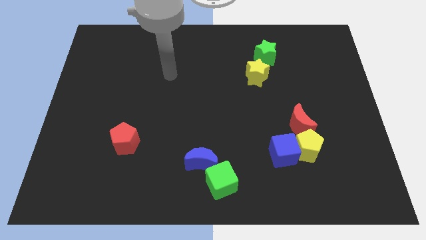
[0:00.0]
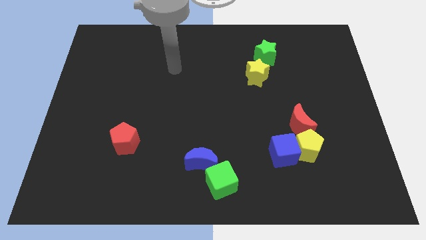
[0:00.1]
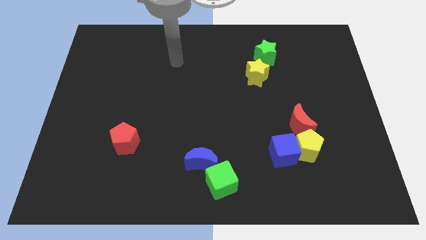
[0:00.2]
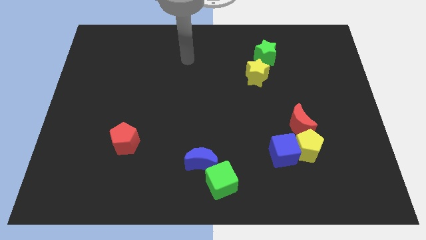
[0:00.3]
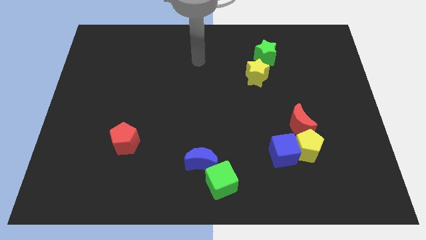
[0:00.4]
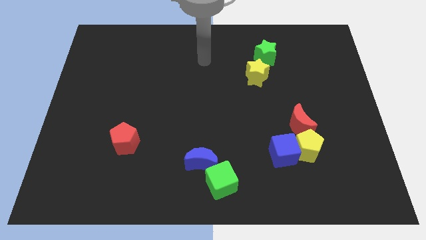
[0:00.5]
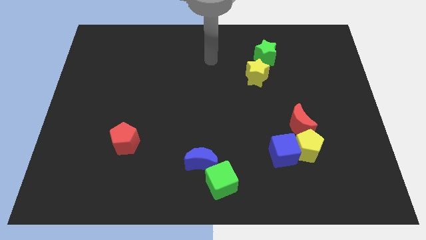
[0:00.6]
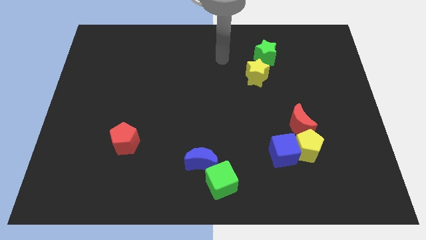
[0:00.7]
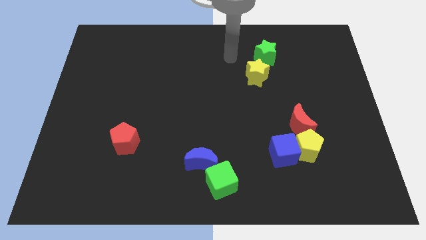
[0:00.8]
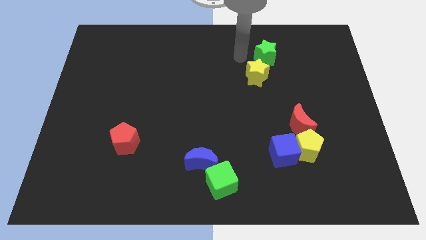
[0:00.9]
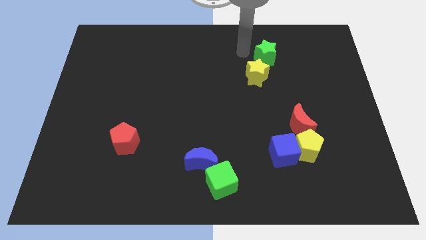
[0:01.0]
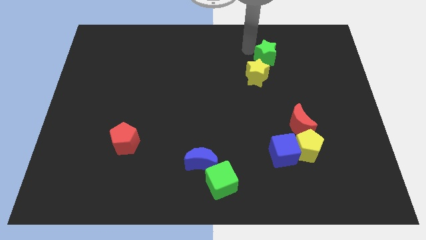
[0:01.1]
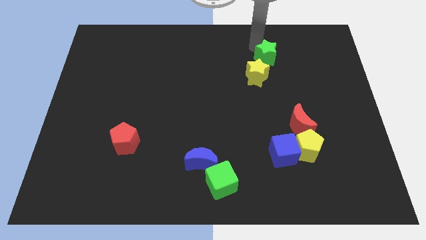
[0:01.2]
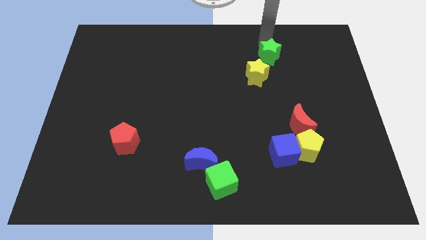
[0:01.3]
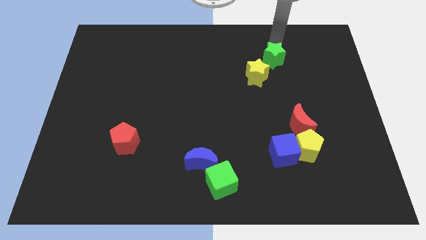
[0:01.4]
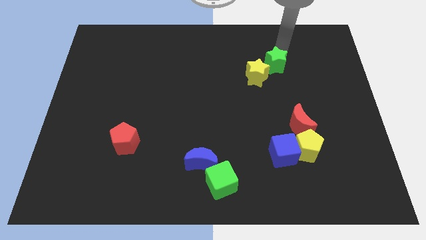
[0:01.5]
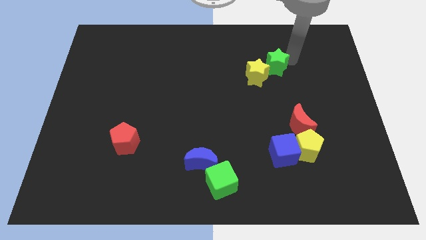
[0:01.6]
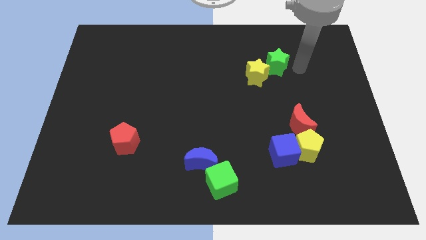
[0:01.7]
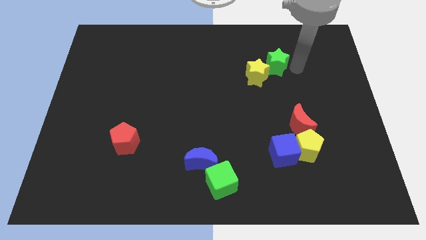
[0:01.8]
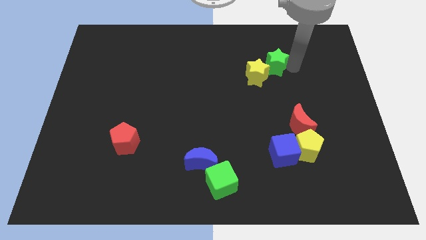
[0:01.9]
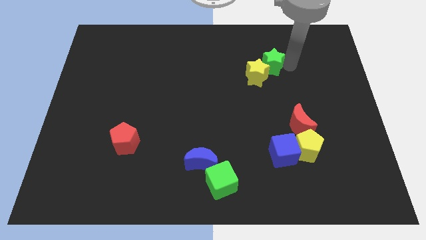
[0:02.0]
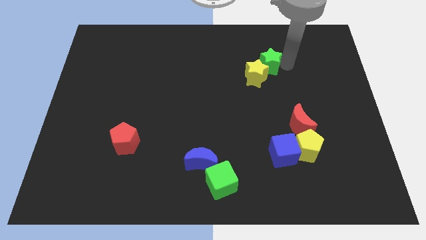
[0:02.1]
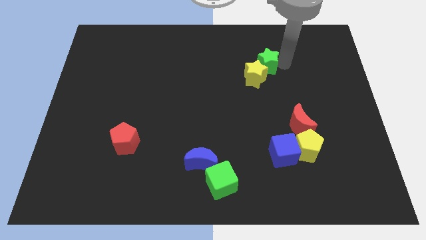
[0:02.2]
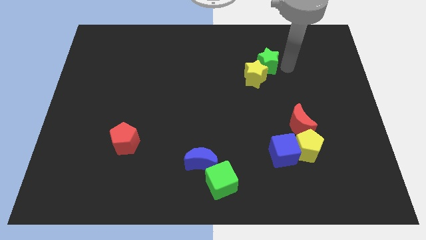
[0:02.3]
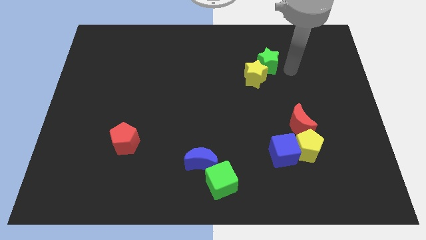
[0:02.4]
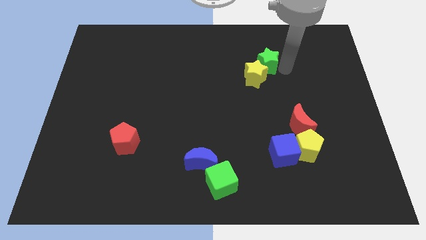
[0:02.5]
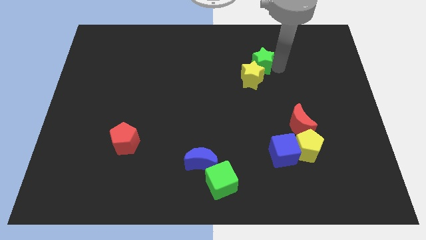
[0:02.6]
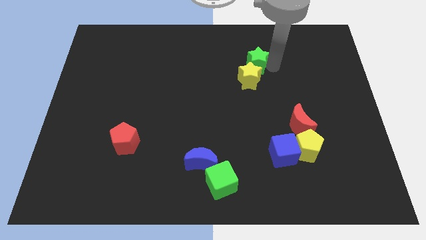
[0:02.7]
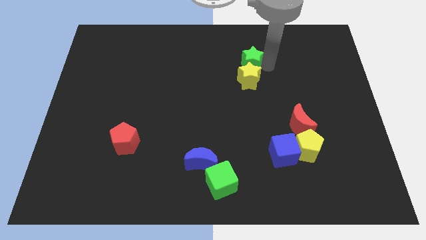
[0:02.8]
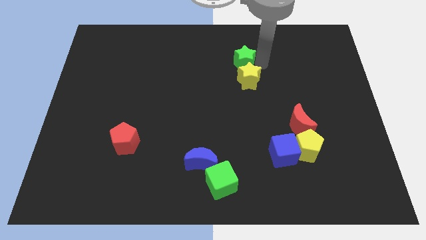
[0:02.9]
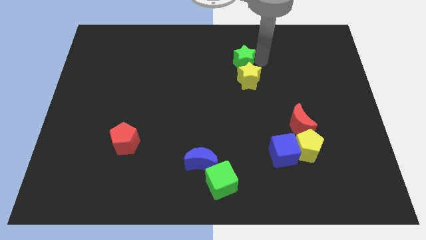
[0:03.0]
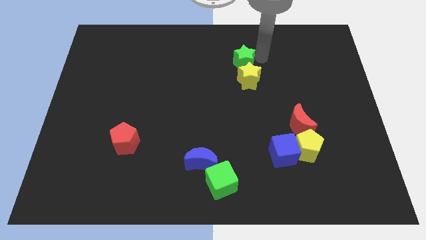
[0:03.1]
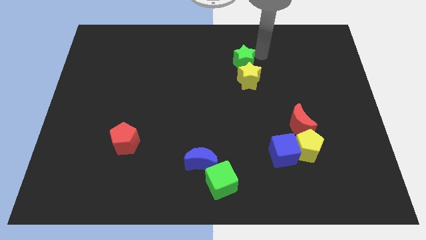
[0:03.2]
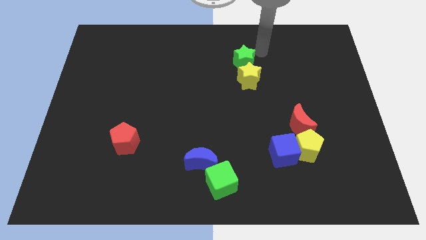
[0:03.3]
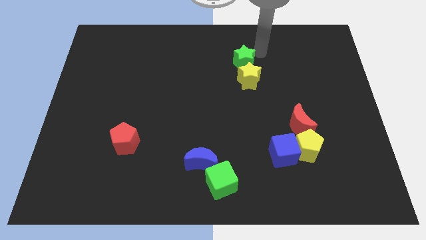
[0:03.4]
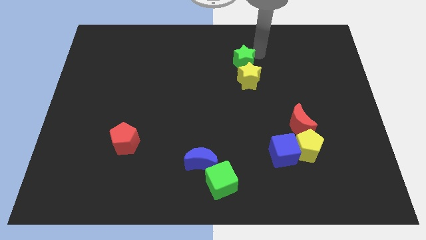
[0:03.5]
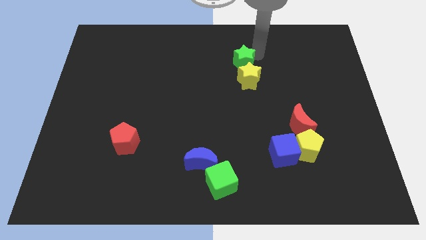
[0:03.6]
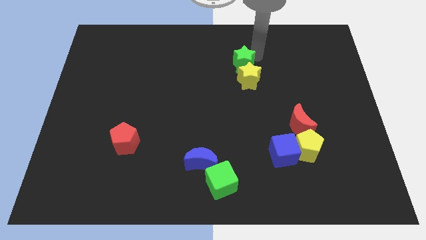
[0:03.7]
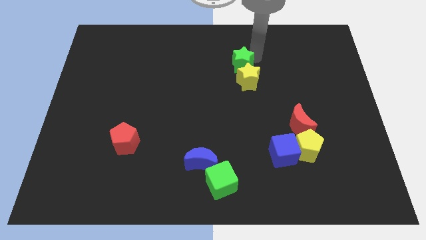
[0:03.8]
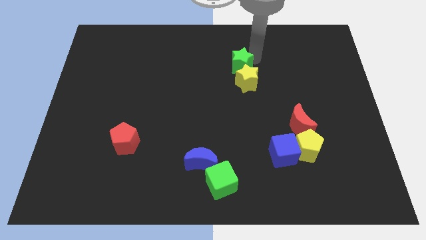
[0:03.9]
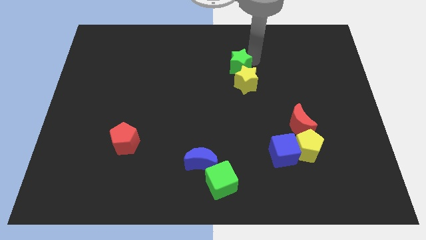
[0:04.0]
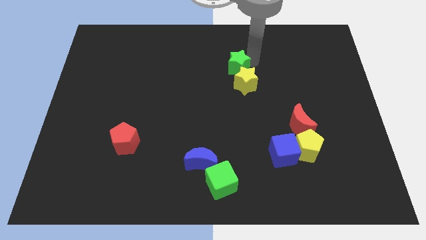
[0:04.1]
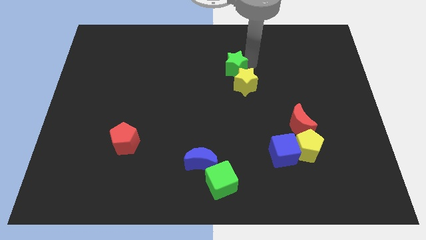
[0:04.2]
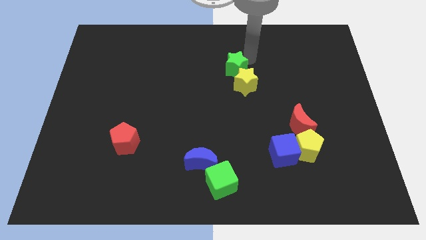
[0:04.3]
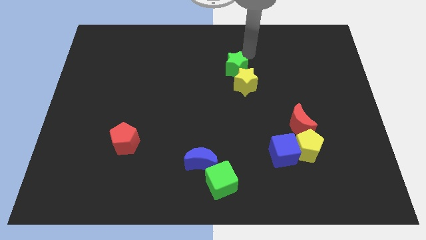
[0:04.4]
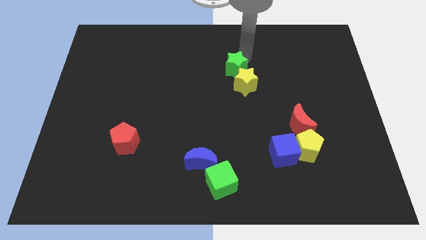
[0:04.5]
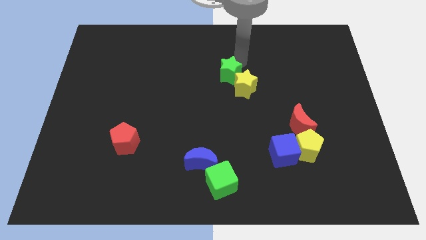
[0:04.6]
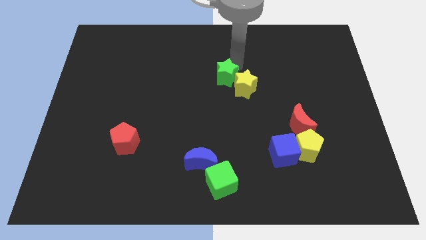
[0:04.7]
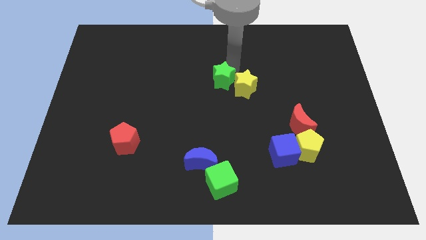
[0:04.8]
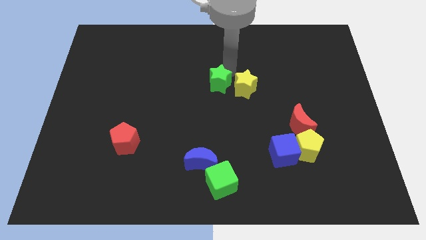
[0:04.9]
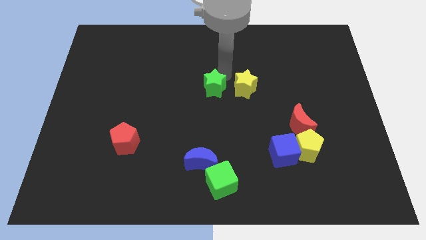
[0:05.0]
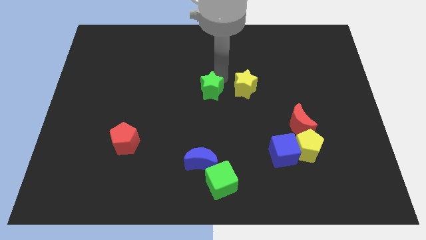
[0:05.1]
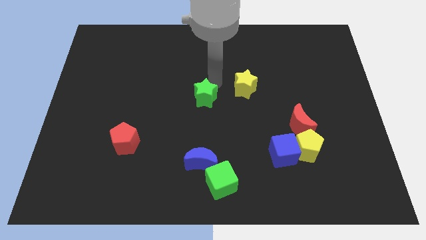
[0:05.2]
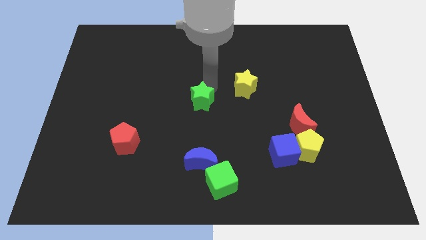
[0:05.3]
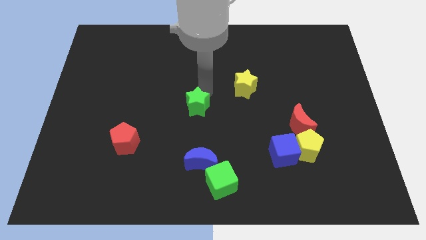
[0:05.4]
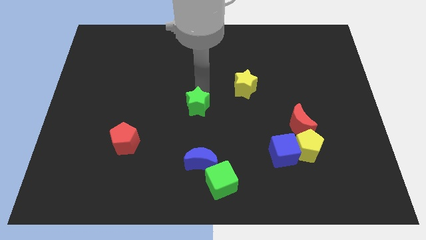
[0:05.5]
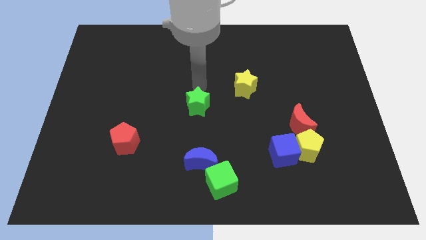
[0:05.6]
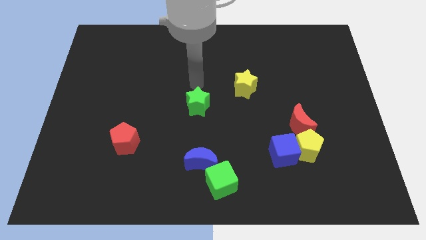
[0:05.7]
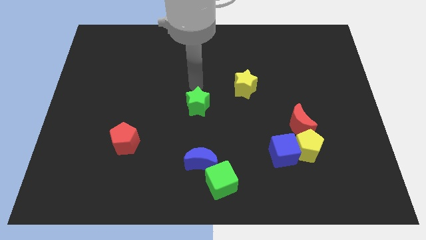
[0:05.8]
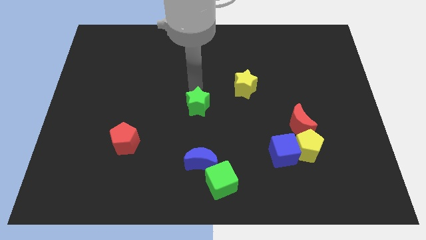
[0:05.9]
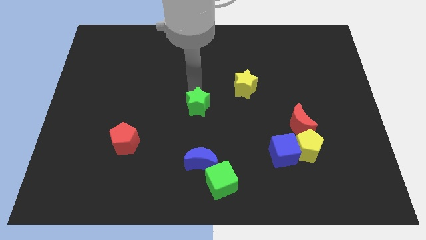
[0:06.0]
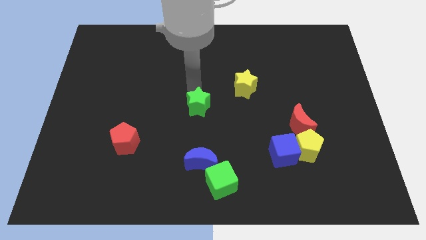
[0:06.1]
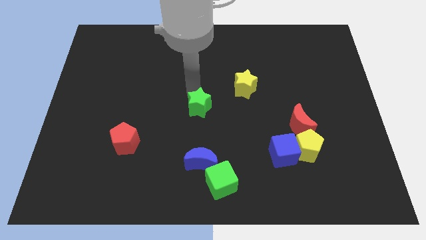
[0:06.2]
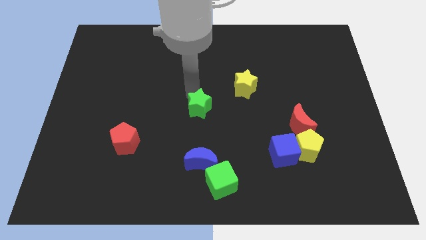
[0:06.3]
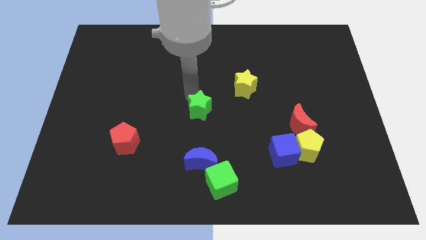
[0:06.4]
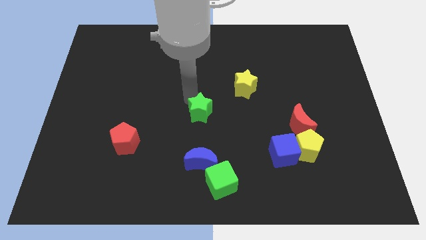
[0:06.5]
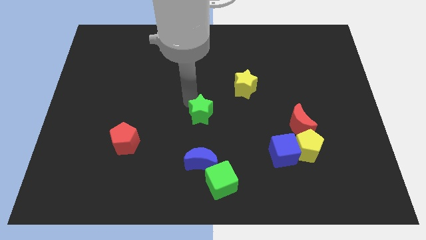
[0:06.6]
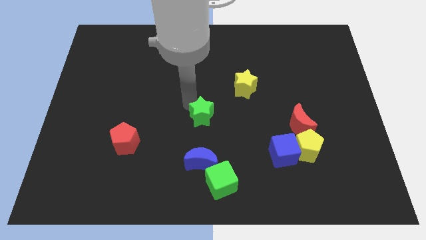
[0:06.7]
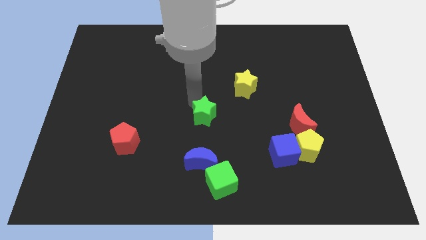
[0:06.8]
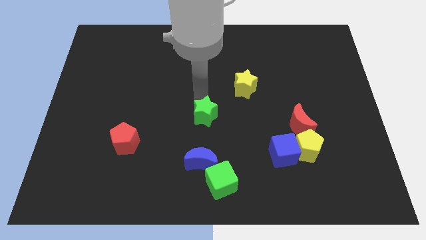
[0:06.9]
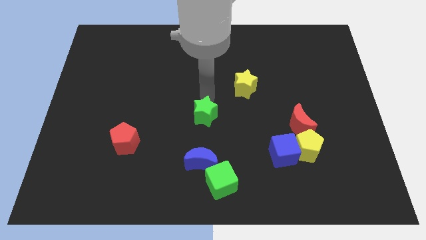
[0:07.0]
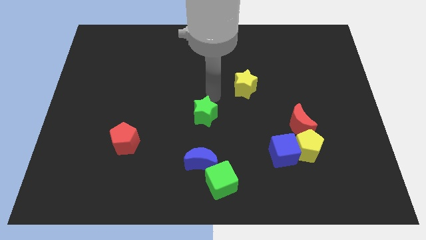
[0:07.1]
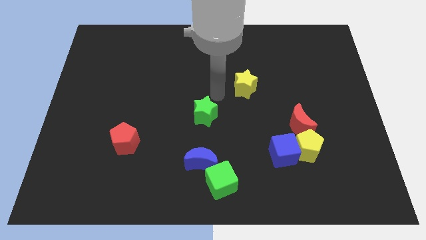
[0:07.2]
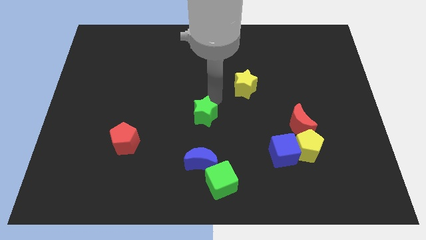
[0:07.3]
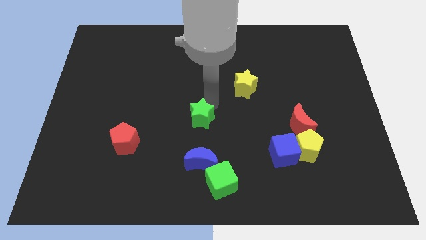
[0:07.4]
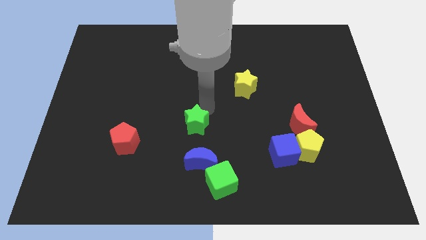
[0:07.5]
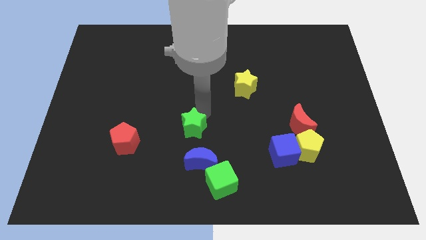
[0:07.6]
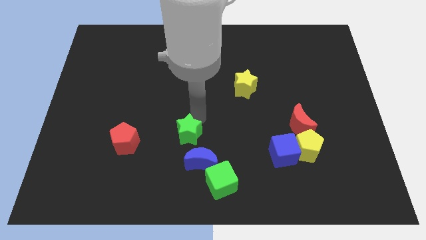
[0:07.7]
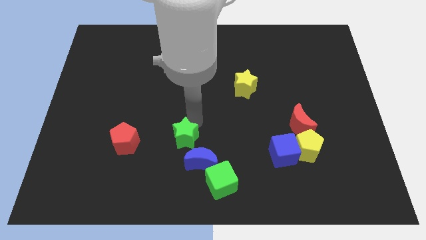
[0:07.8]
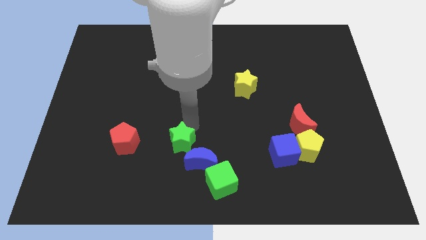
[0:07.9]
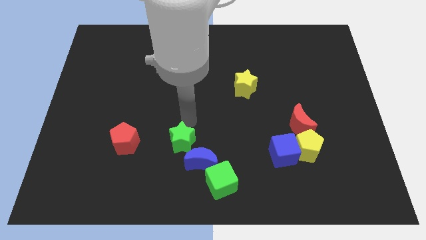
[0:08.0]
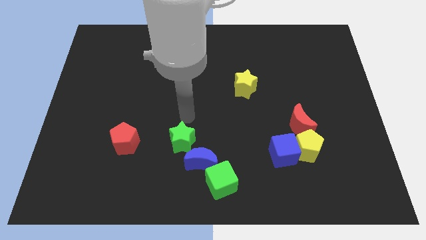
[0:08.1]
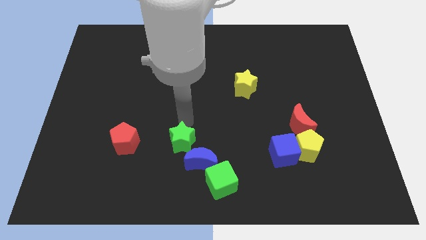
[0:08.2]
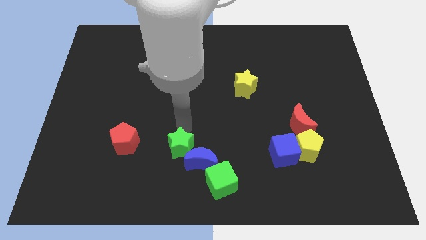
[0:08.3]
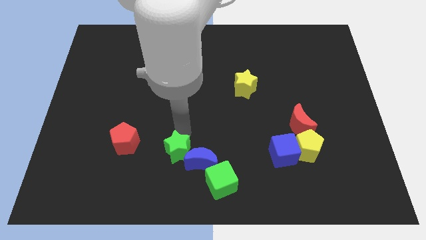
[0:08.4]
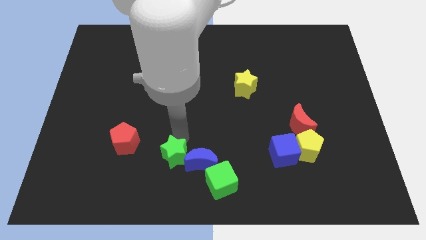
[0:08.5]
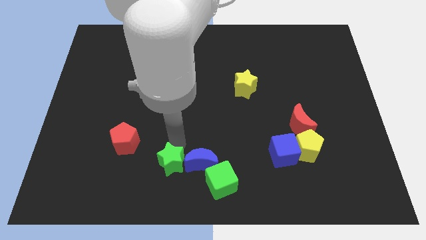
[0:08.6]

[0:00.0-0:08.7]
slide the green star to the left of the green cube
